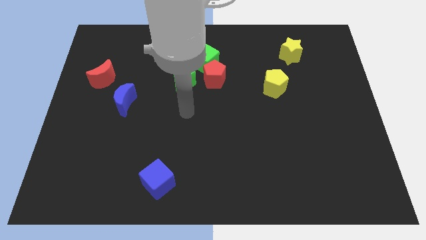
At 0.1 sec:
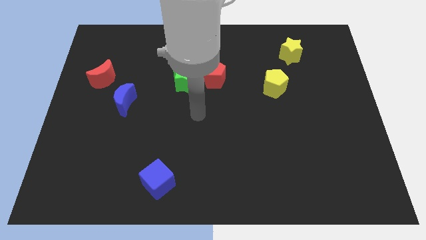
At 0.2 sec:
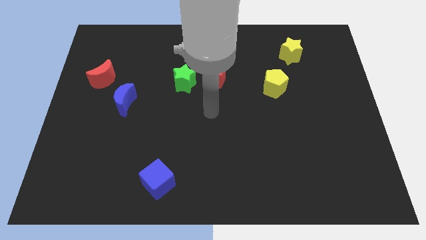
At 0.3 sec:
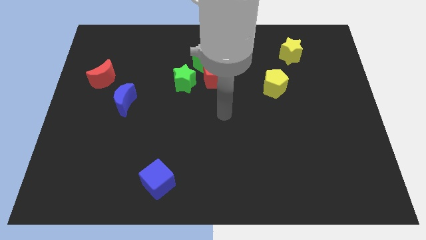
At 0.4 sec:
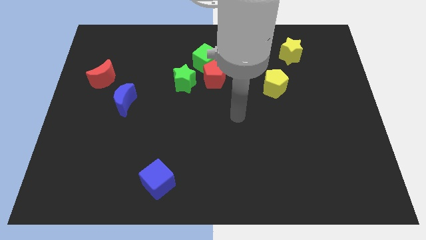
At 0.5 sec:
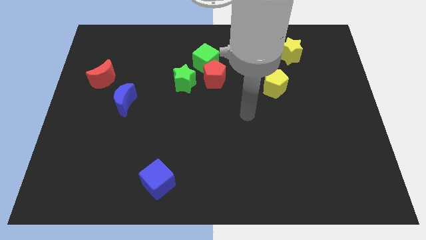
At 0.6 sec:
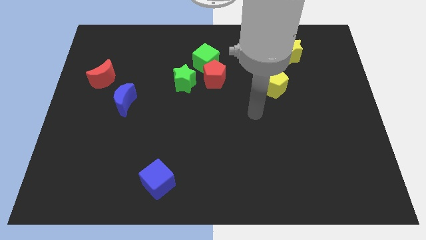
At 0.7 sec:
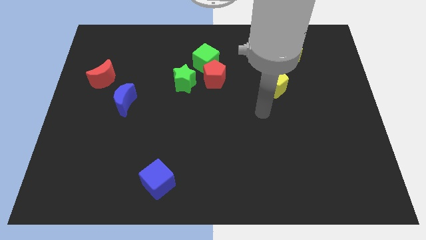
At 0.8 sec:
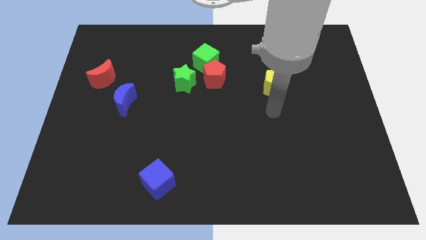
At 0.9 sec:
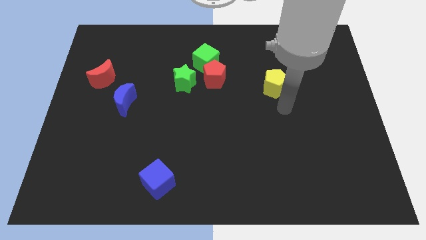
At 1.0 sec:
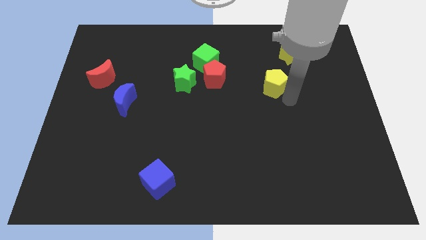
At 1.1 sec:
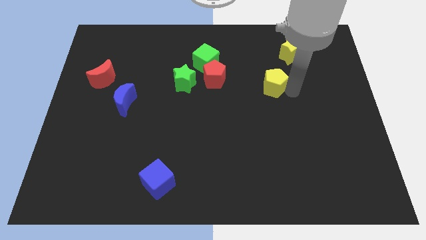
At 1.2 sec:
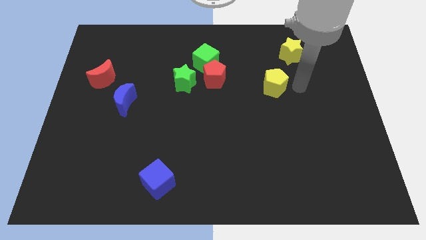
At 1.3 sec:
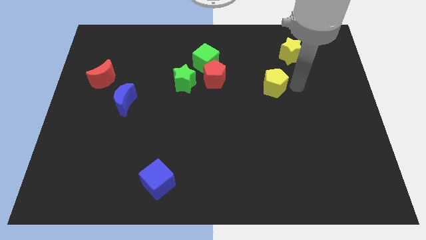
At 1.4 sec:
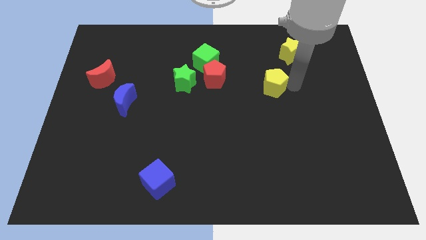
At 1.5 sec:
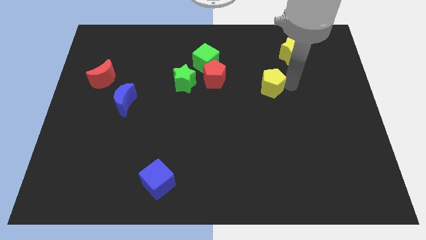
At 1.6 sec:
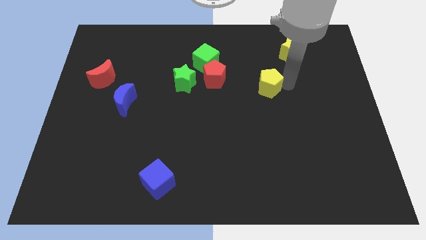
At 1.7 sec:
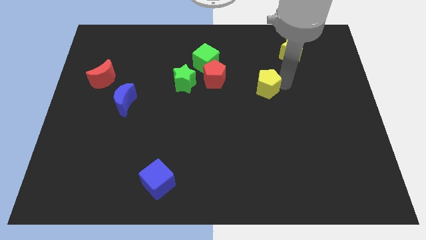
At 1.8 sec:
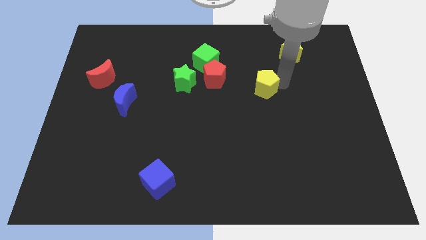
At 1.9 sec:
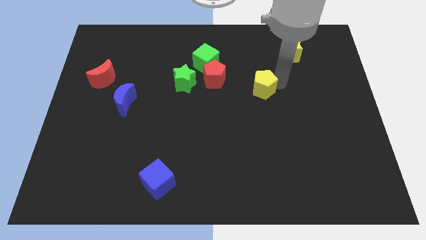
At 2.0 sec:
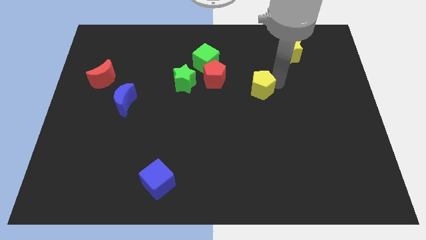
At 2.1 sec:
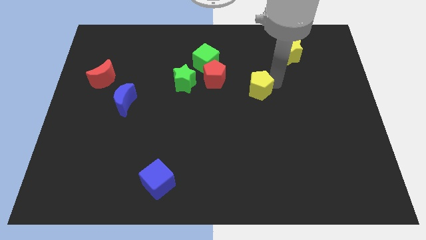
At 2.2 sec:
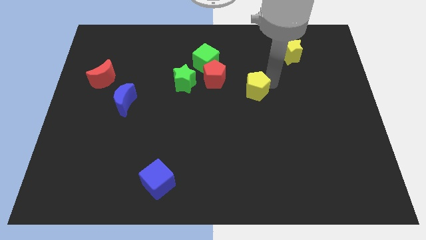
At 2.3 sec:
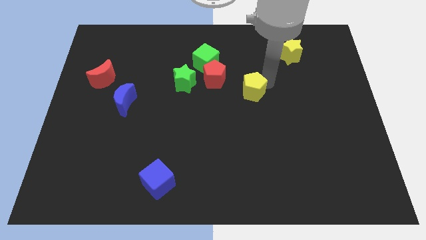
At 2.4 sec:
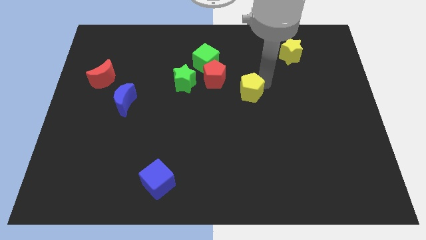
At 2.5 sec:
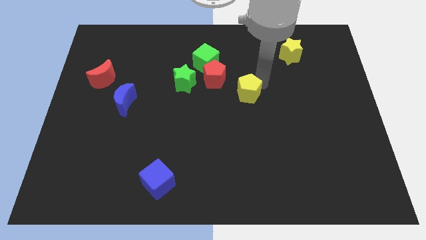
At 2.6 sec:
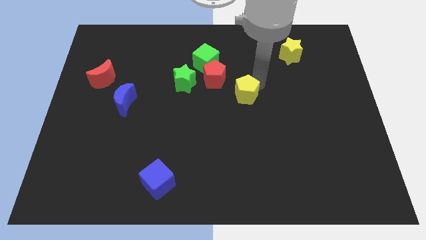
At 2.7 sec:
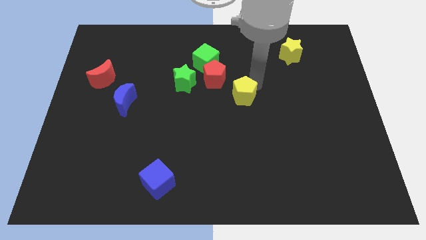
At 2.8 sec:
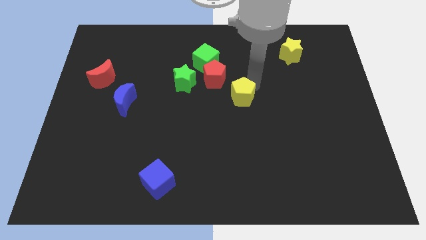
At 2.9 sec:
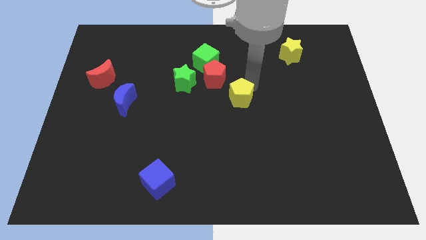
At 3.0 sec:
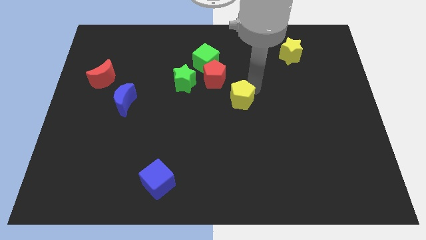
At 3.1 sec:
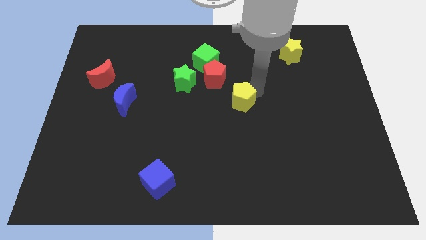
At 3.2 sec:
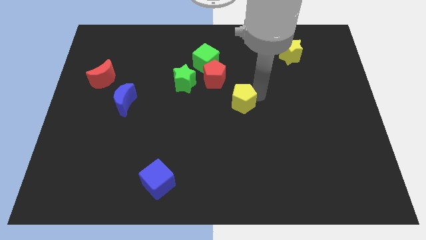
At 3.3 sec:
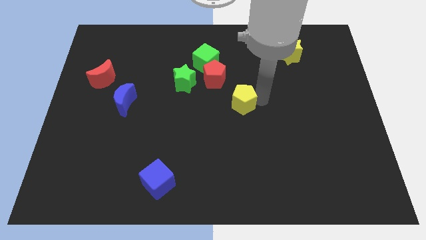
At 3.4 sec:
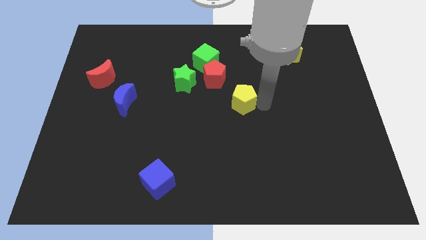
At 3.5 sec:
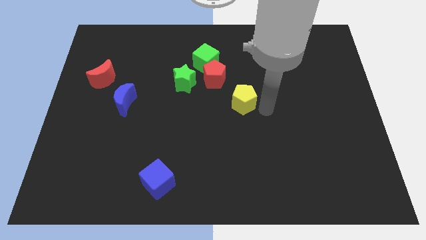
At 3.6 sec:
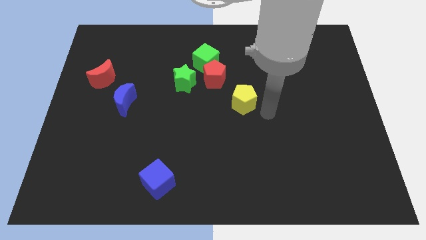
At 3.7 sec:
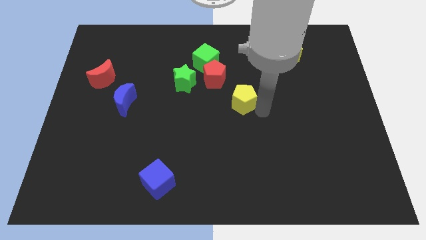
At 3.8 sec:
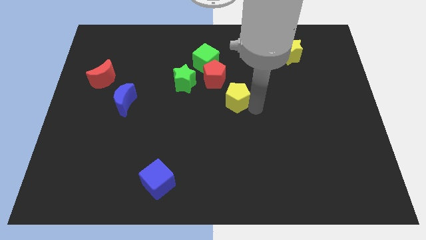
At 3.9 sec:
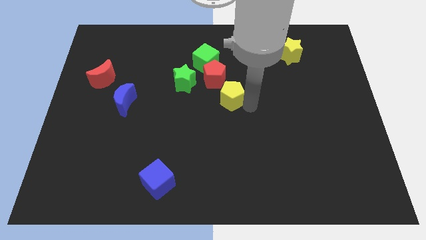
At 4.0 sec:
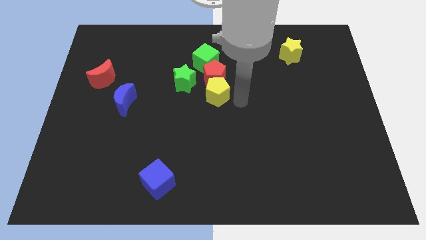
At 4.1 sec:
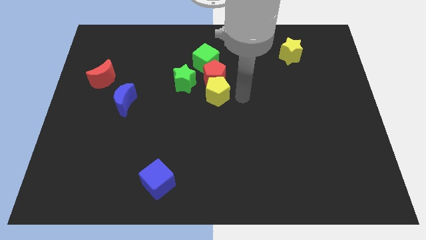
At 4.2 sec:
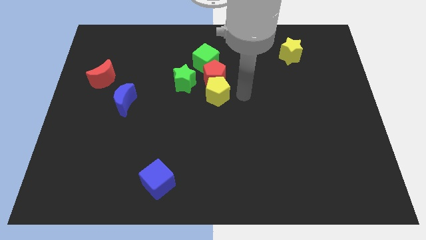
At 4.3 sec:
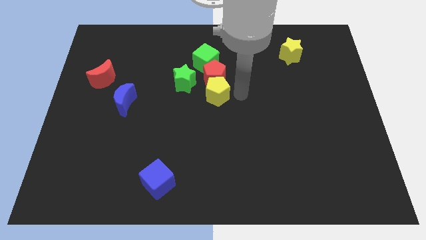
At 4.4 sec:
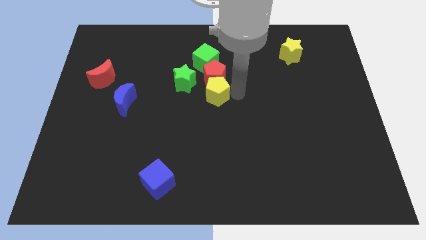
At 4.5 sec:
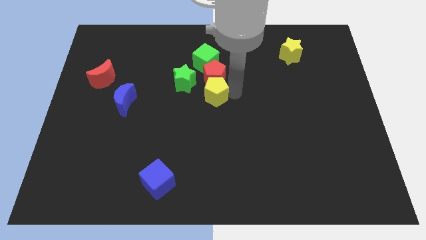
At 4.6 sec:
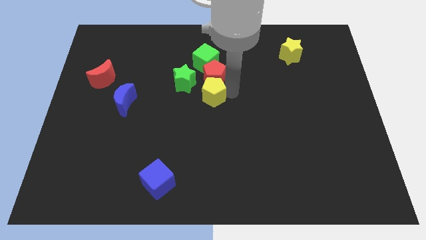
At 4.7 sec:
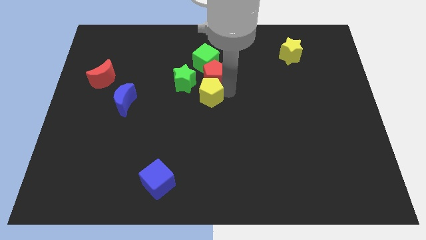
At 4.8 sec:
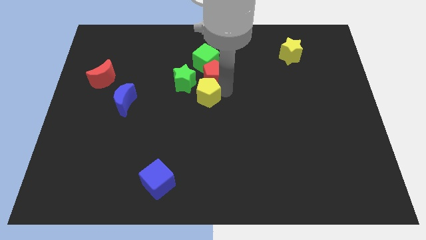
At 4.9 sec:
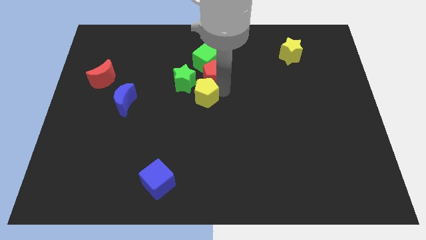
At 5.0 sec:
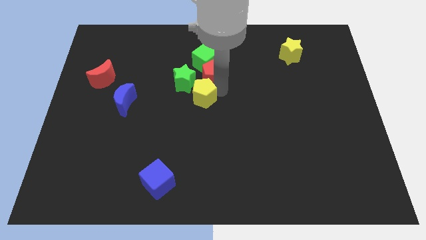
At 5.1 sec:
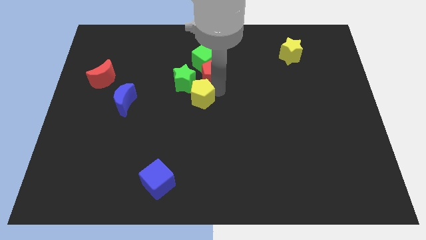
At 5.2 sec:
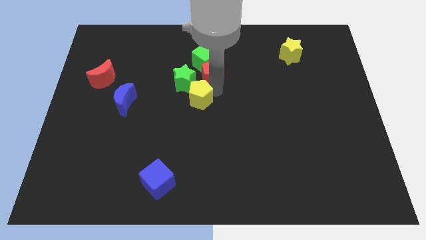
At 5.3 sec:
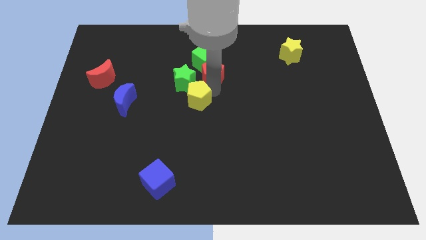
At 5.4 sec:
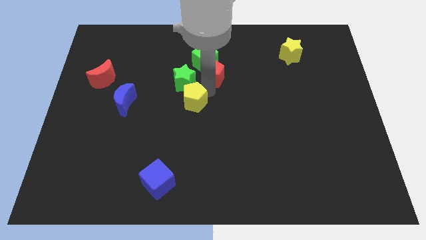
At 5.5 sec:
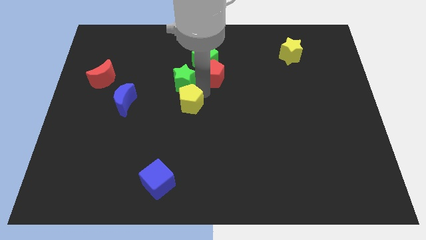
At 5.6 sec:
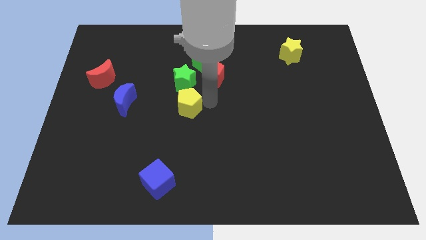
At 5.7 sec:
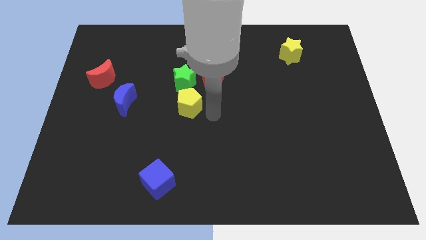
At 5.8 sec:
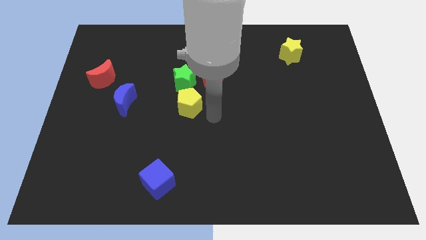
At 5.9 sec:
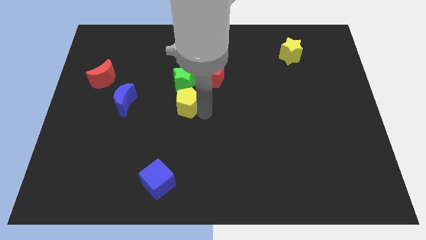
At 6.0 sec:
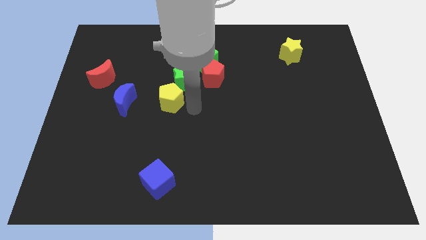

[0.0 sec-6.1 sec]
move the yellow pentagon to the left

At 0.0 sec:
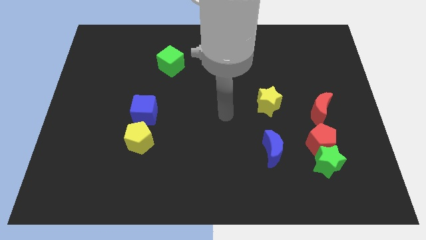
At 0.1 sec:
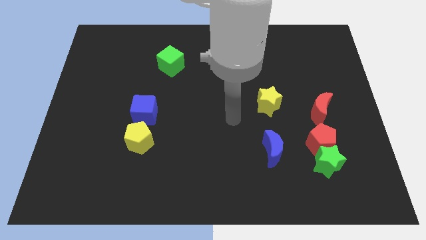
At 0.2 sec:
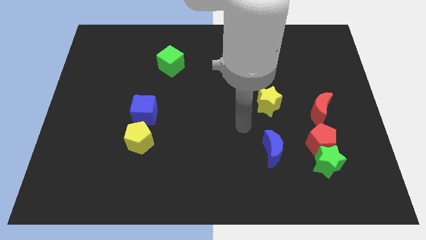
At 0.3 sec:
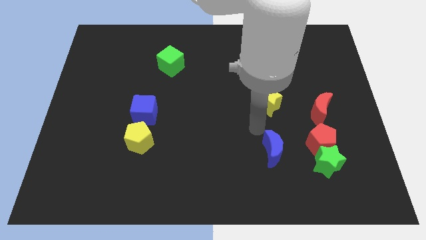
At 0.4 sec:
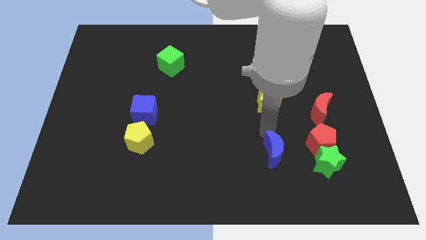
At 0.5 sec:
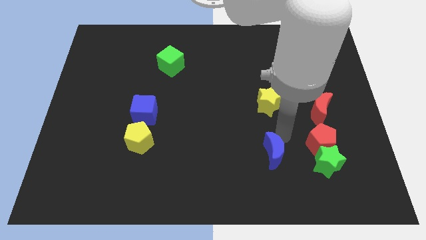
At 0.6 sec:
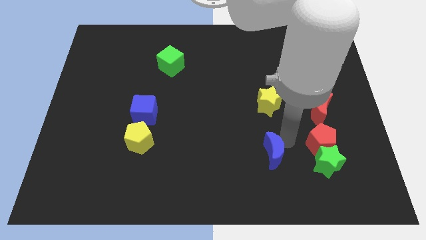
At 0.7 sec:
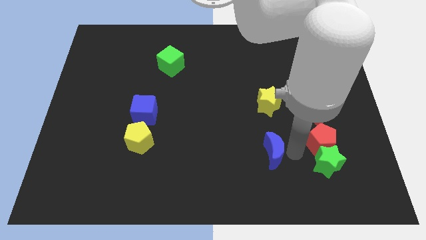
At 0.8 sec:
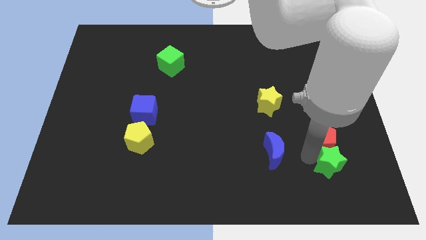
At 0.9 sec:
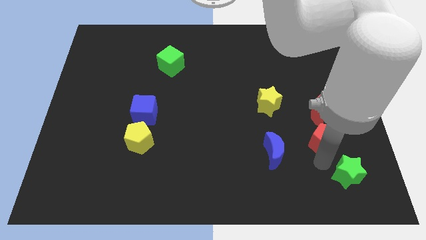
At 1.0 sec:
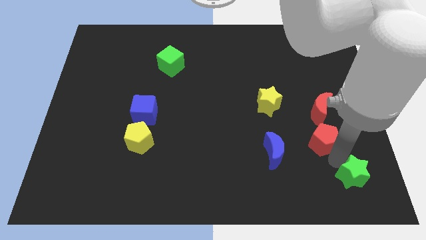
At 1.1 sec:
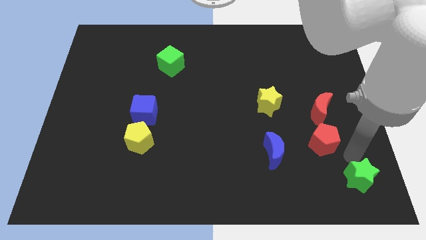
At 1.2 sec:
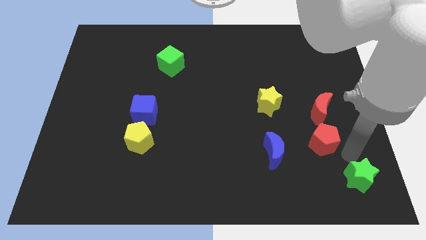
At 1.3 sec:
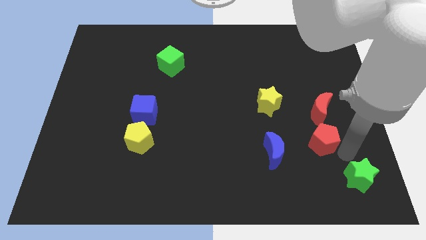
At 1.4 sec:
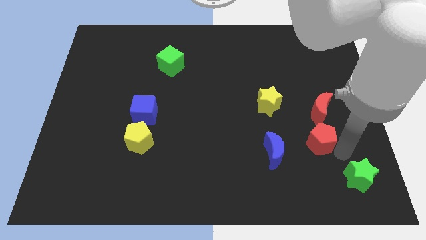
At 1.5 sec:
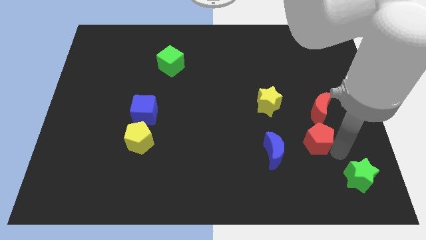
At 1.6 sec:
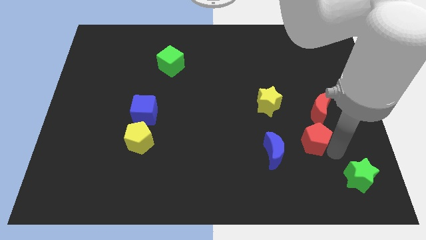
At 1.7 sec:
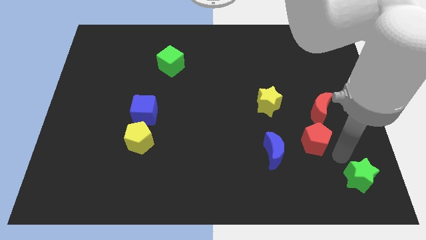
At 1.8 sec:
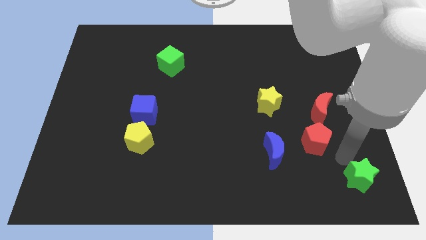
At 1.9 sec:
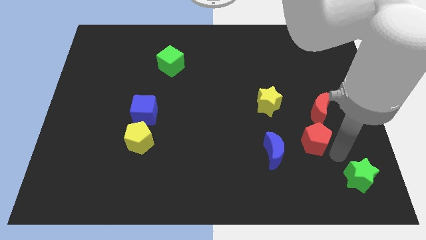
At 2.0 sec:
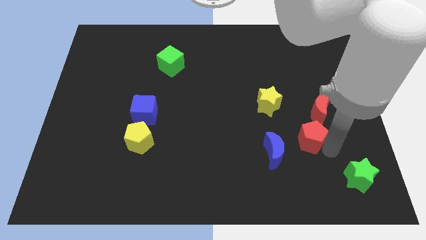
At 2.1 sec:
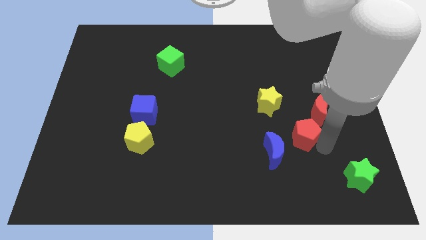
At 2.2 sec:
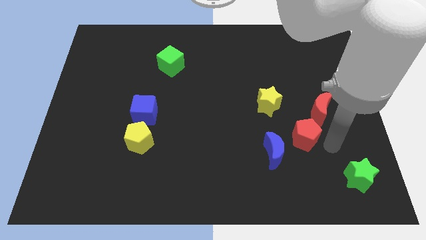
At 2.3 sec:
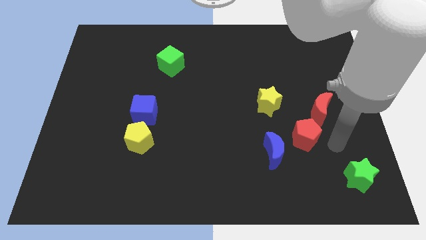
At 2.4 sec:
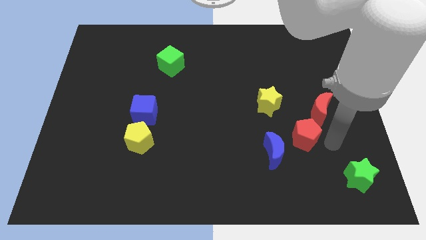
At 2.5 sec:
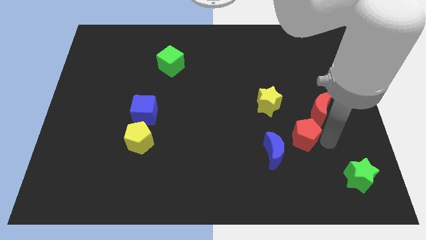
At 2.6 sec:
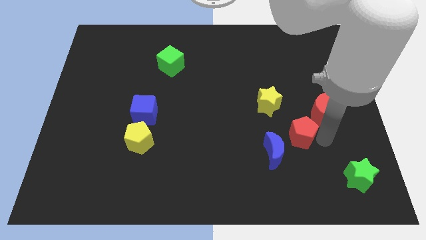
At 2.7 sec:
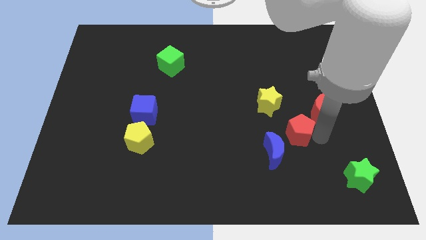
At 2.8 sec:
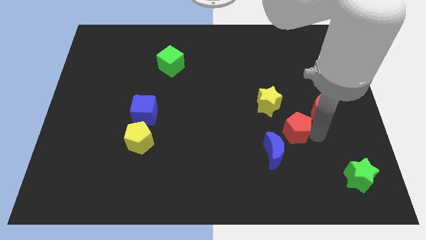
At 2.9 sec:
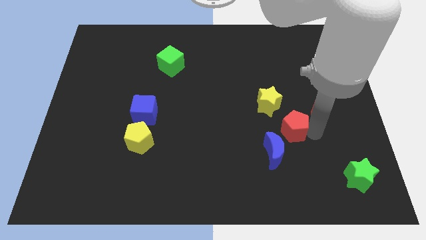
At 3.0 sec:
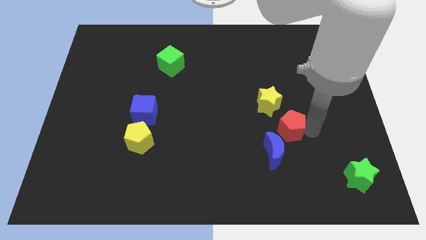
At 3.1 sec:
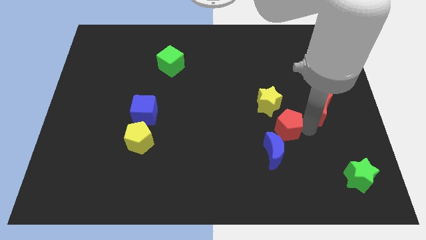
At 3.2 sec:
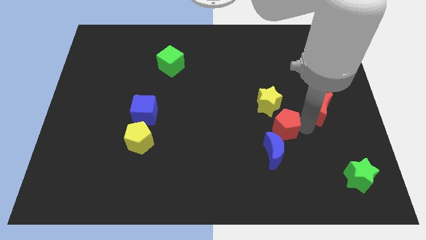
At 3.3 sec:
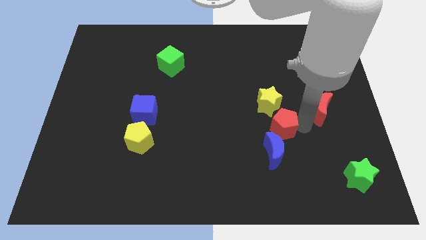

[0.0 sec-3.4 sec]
slide the red pentagon slightly left
